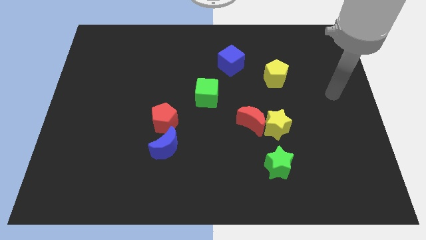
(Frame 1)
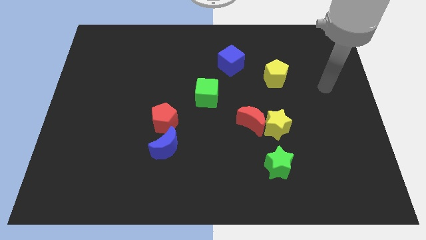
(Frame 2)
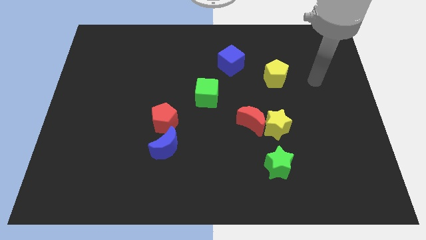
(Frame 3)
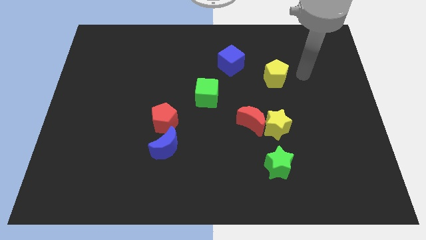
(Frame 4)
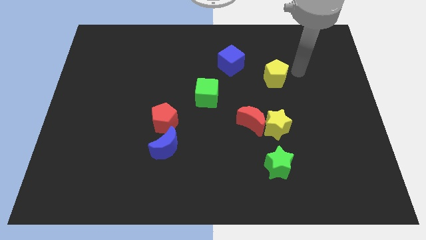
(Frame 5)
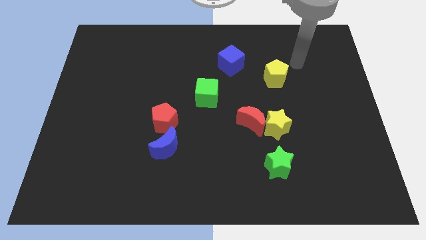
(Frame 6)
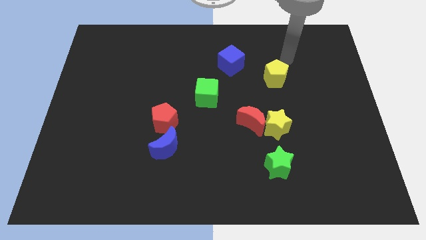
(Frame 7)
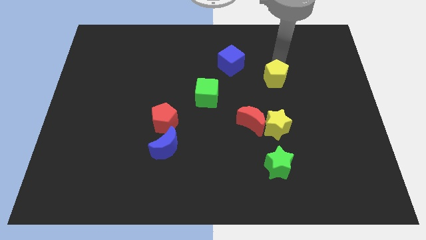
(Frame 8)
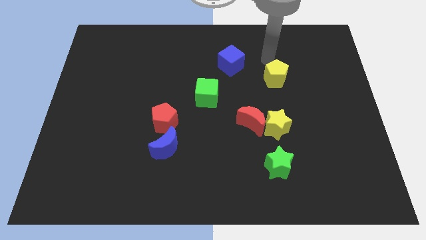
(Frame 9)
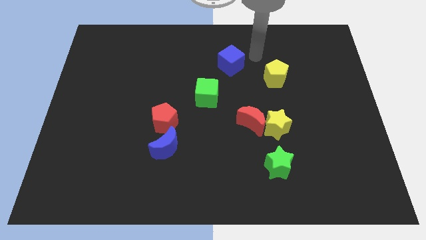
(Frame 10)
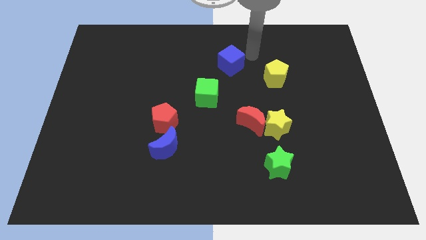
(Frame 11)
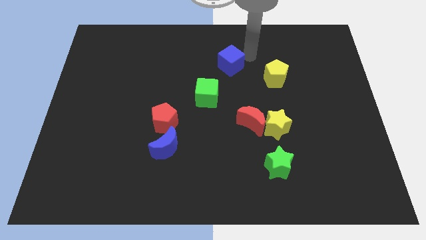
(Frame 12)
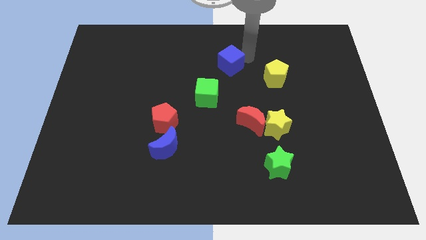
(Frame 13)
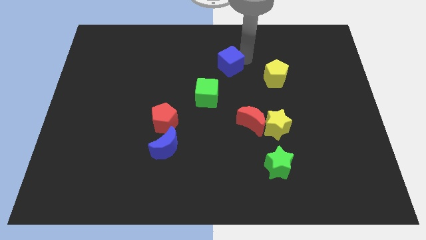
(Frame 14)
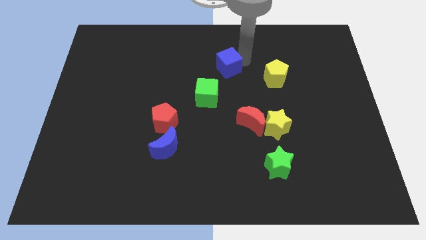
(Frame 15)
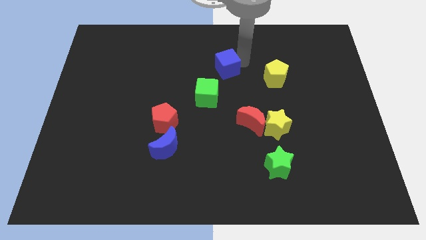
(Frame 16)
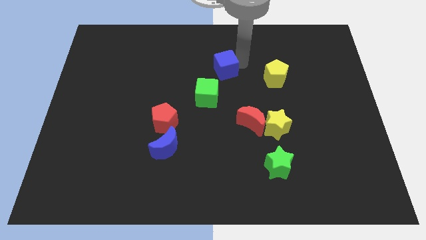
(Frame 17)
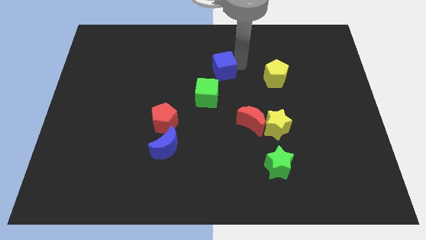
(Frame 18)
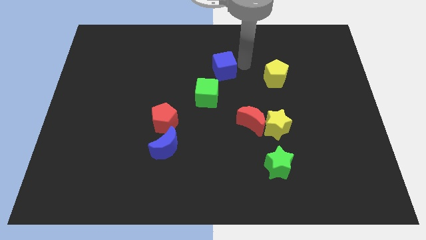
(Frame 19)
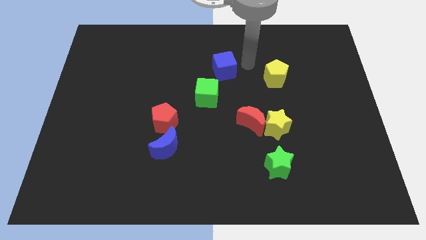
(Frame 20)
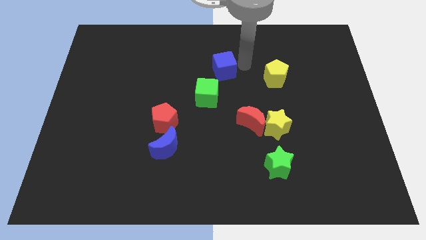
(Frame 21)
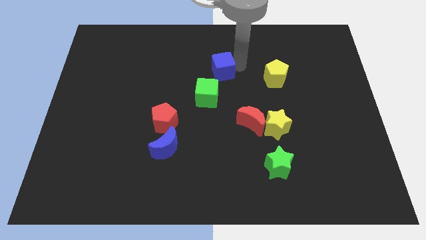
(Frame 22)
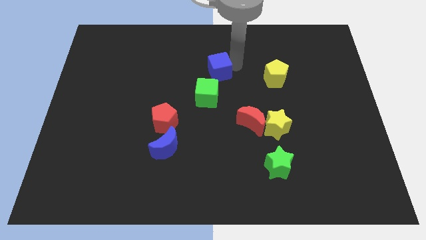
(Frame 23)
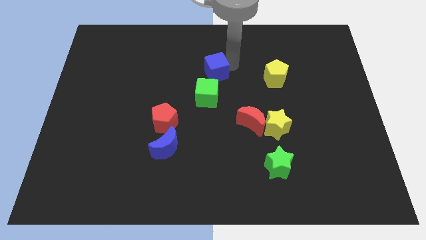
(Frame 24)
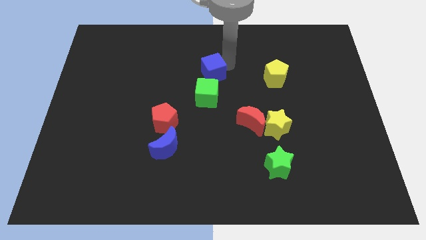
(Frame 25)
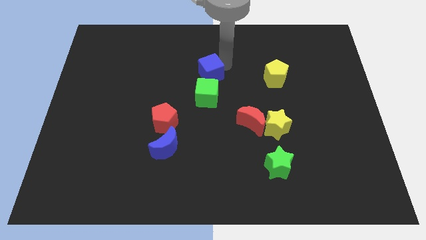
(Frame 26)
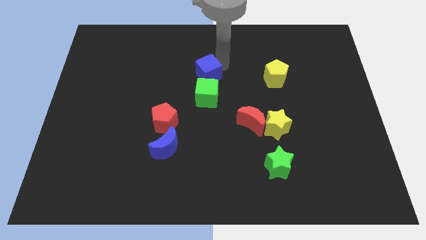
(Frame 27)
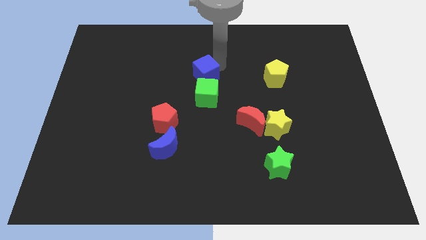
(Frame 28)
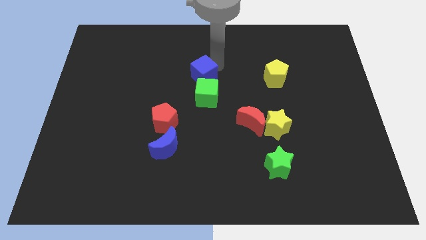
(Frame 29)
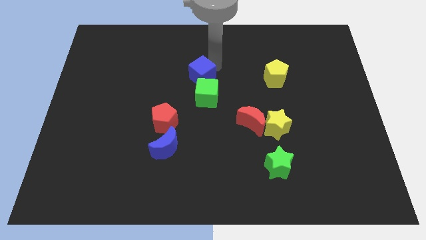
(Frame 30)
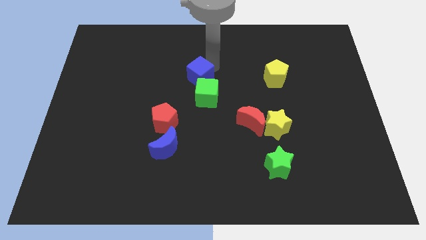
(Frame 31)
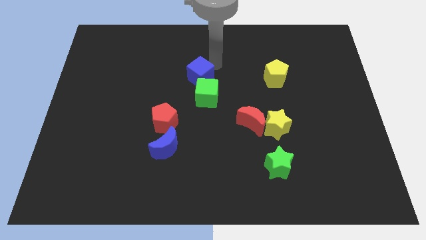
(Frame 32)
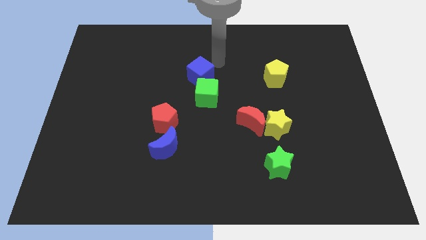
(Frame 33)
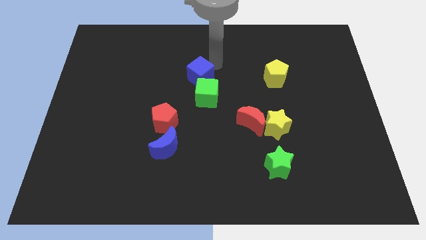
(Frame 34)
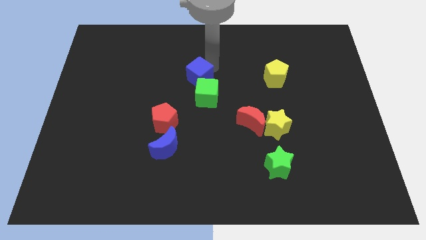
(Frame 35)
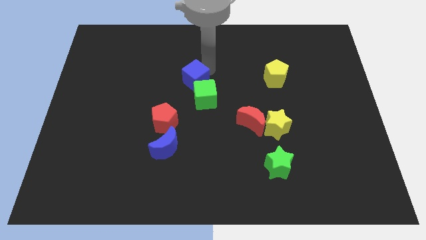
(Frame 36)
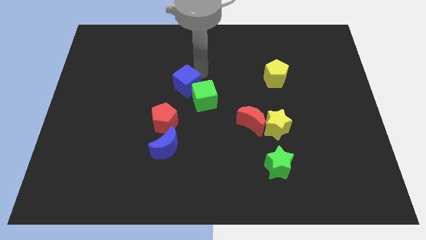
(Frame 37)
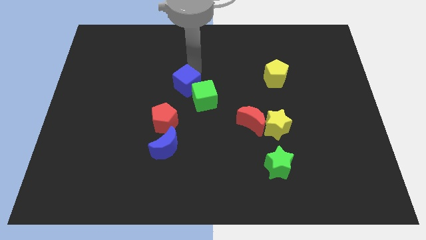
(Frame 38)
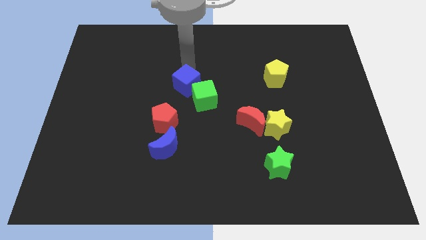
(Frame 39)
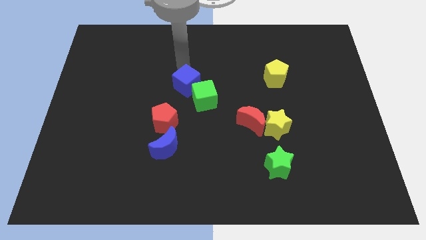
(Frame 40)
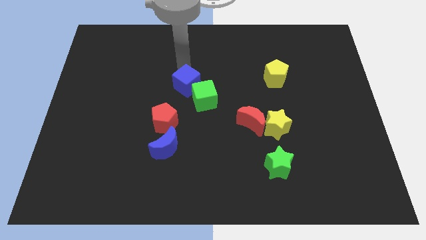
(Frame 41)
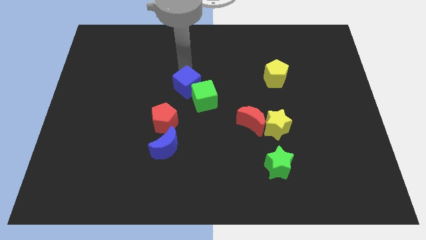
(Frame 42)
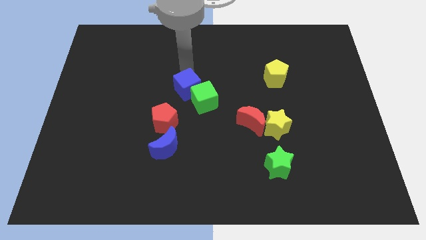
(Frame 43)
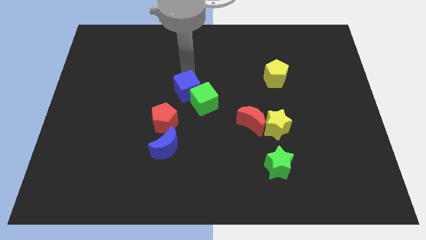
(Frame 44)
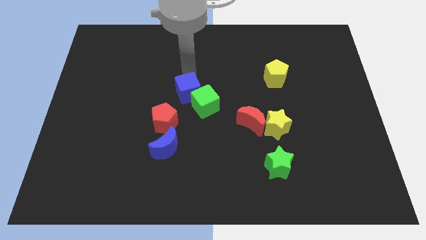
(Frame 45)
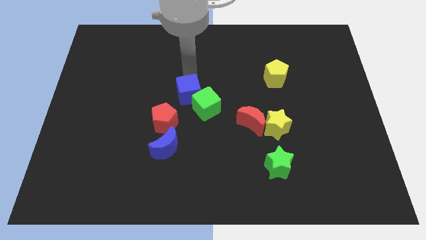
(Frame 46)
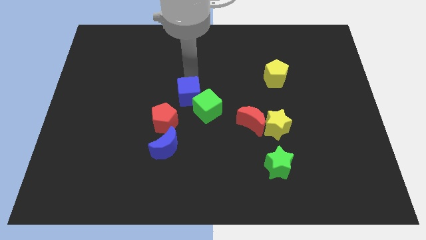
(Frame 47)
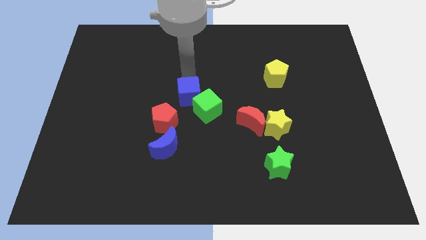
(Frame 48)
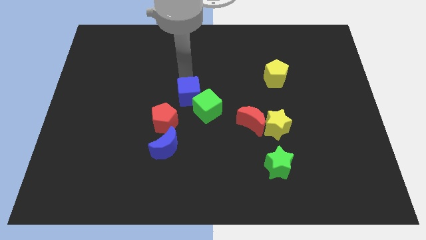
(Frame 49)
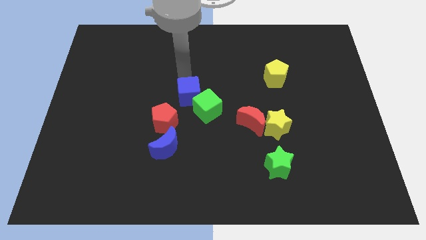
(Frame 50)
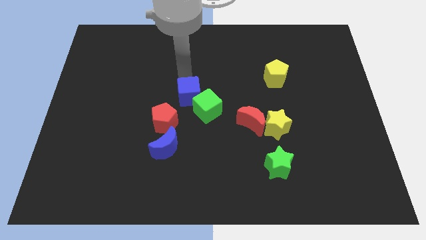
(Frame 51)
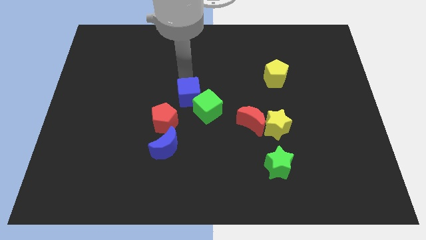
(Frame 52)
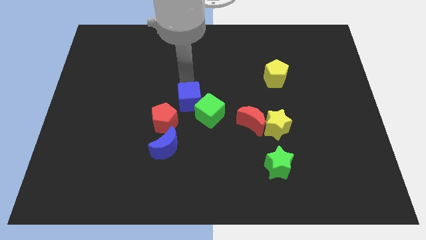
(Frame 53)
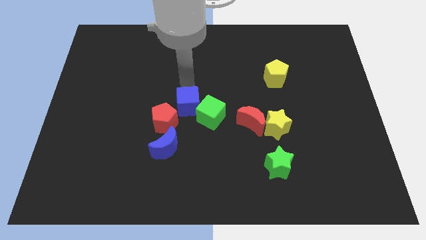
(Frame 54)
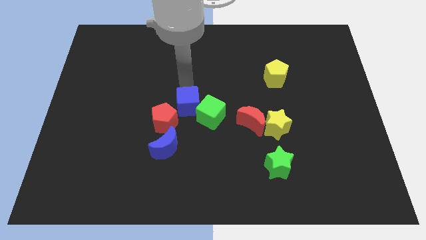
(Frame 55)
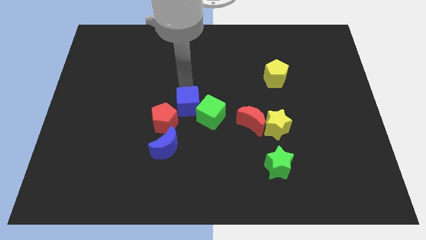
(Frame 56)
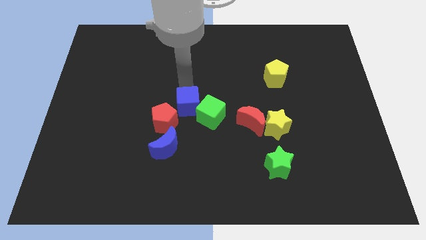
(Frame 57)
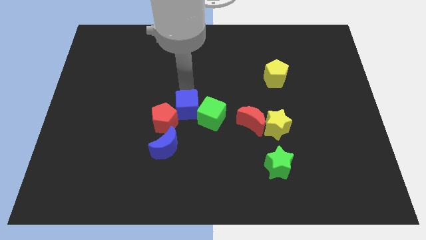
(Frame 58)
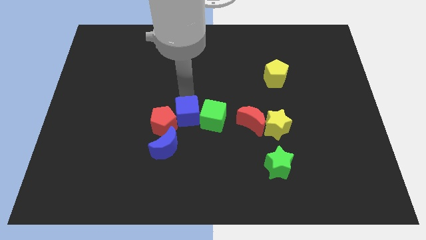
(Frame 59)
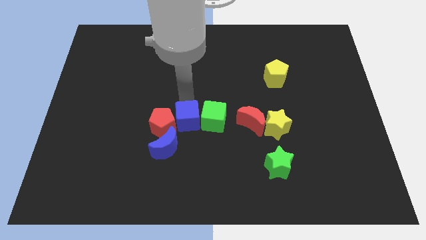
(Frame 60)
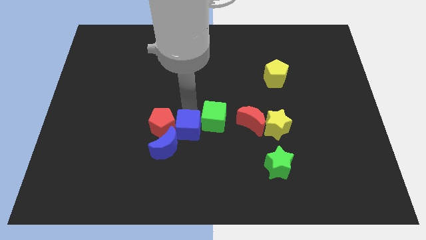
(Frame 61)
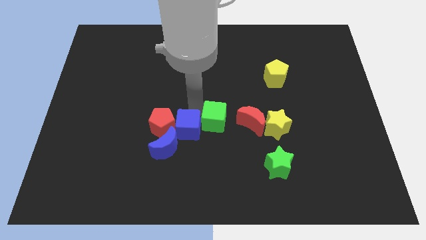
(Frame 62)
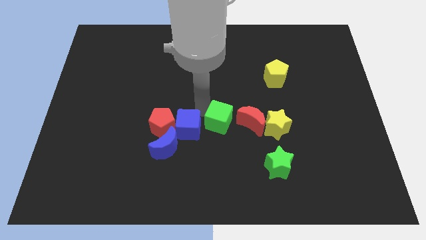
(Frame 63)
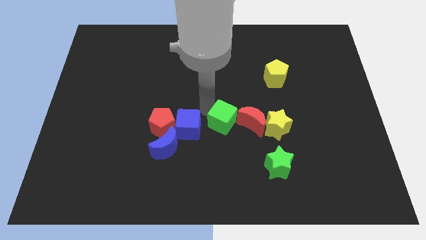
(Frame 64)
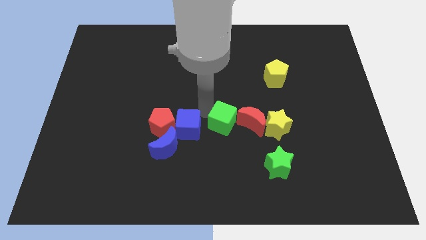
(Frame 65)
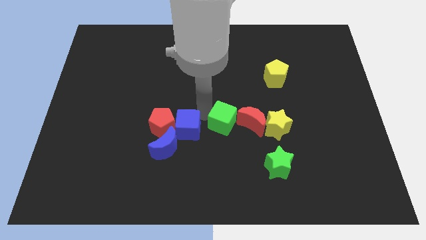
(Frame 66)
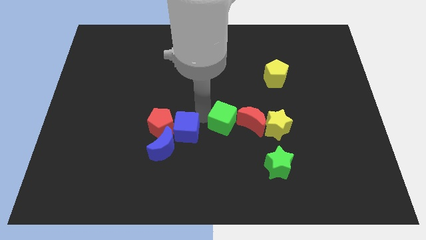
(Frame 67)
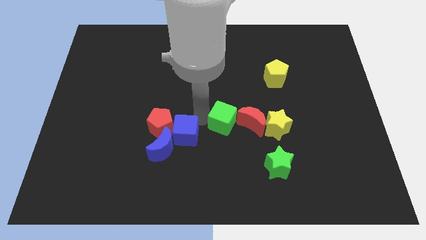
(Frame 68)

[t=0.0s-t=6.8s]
push the blue cube close to the blue moon
